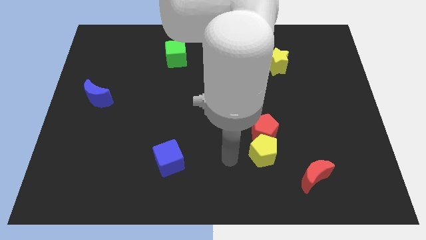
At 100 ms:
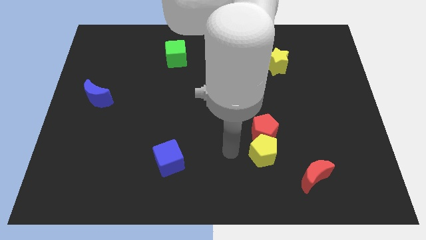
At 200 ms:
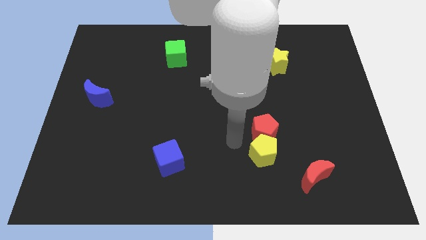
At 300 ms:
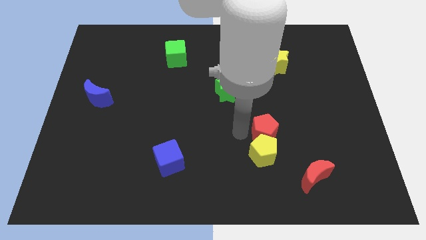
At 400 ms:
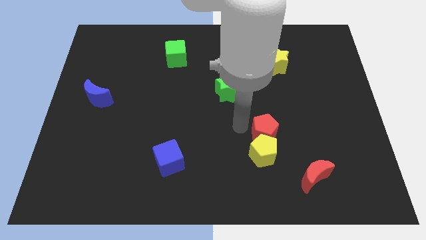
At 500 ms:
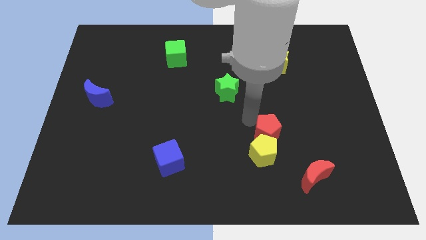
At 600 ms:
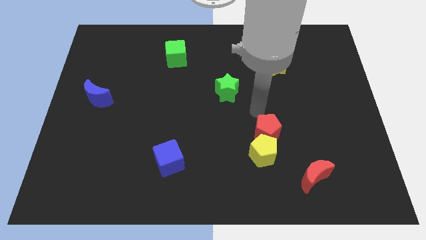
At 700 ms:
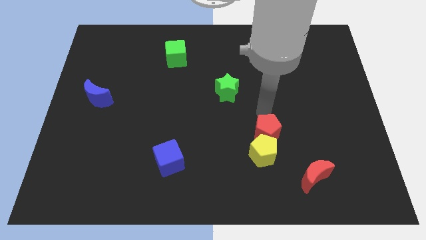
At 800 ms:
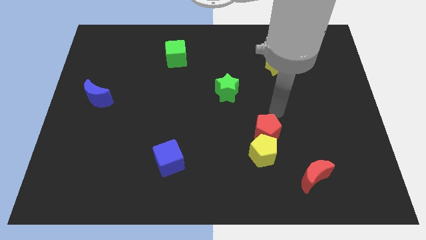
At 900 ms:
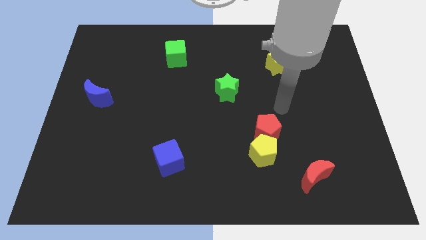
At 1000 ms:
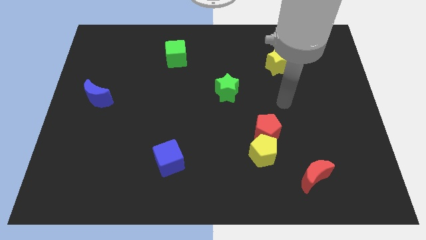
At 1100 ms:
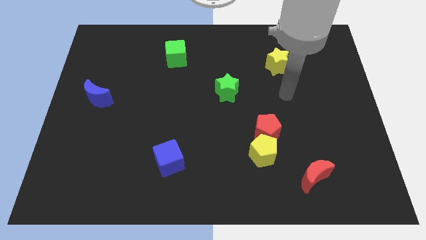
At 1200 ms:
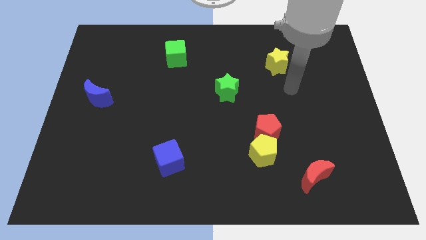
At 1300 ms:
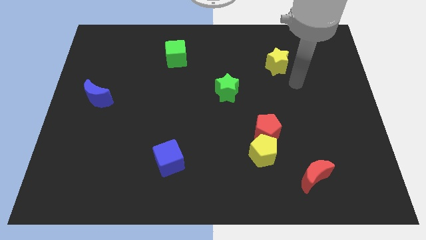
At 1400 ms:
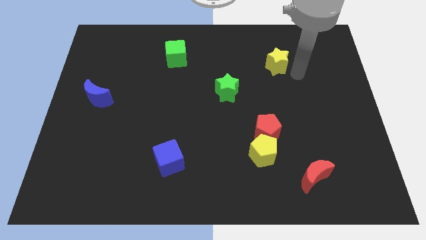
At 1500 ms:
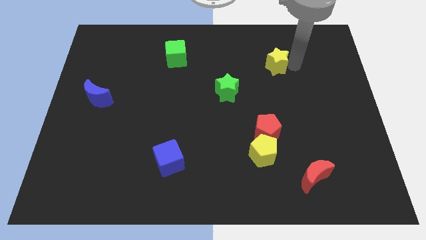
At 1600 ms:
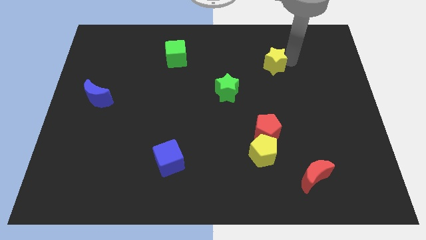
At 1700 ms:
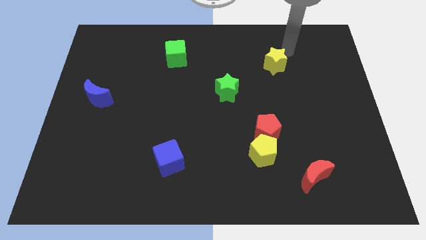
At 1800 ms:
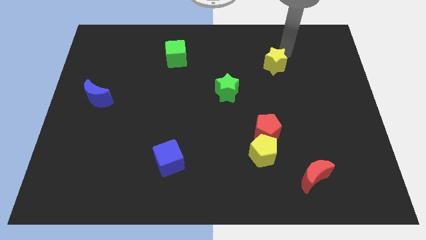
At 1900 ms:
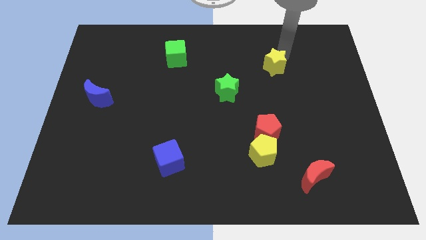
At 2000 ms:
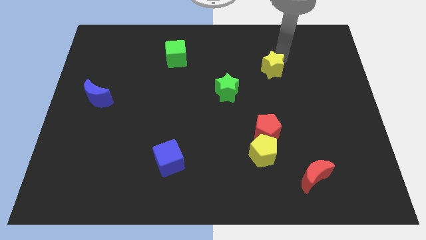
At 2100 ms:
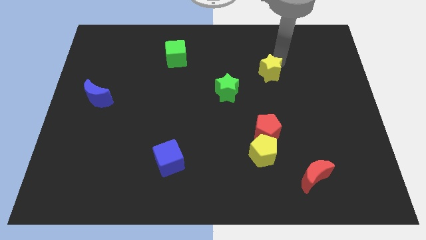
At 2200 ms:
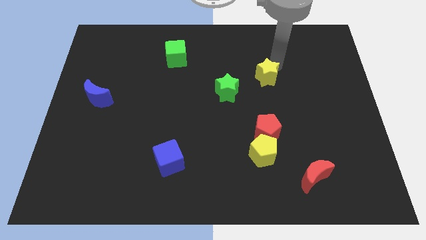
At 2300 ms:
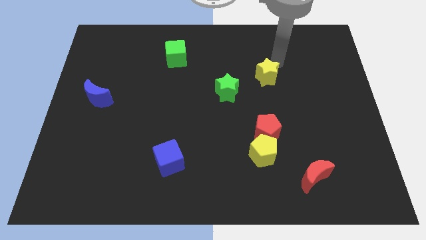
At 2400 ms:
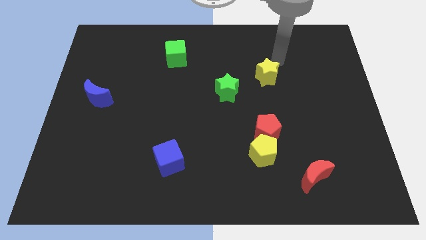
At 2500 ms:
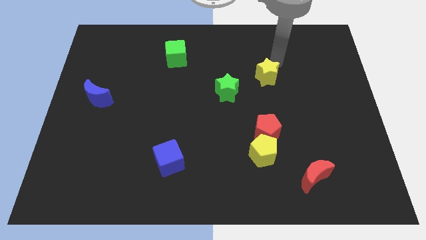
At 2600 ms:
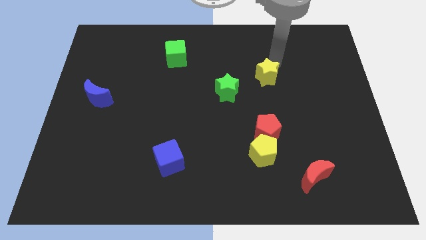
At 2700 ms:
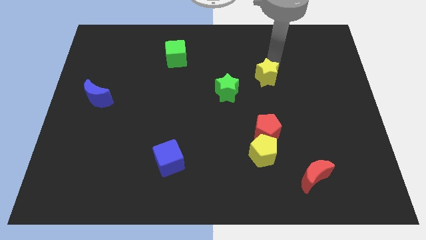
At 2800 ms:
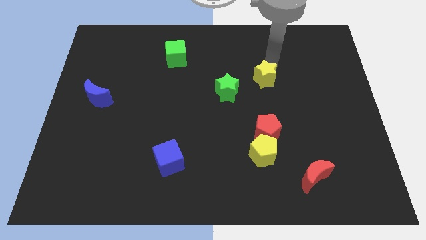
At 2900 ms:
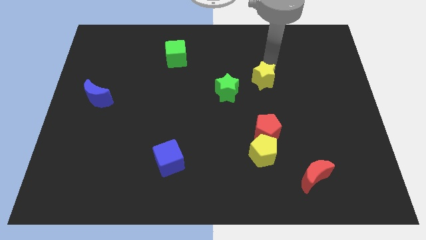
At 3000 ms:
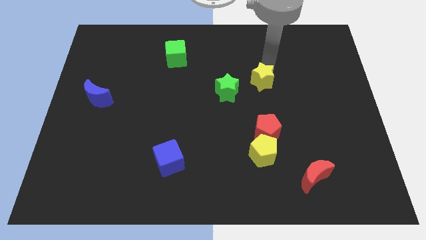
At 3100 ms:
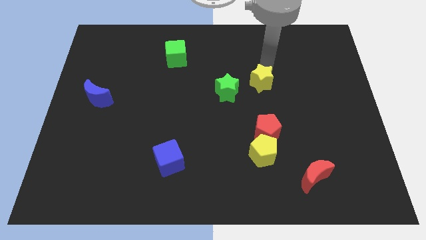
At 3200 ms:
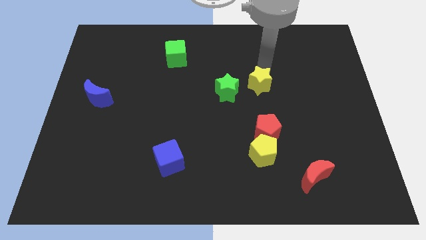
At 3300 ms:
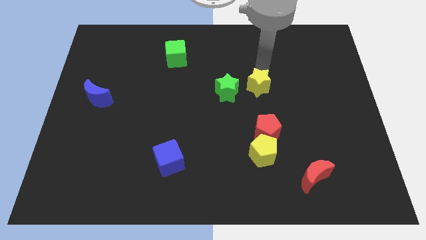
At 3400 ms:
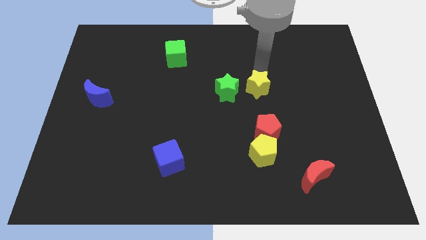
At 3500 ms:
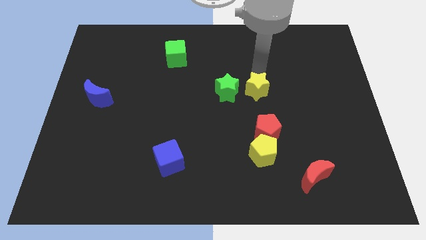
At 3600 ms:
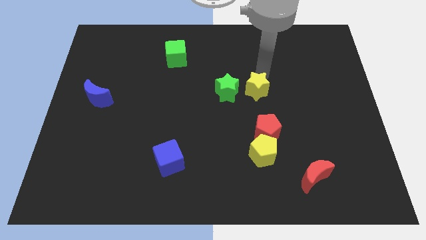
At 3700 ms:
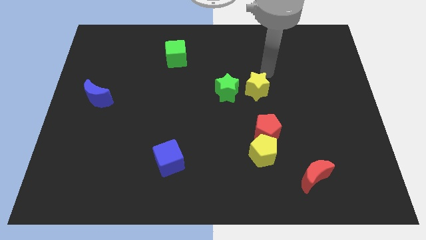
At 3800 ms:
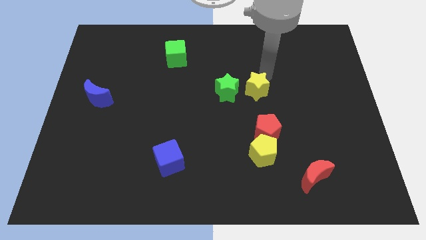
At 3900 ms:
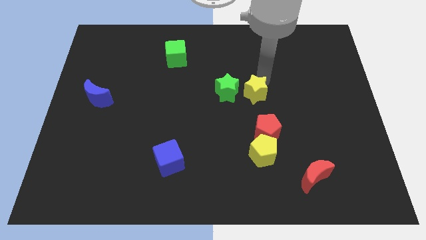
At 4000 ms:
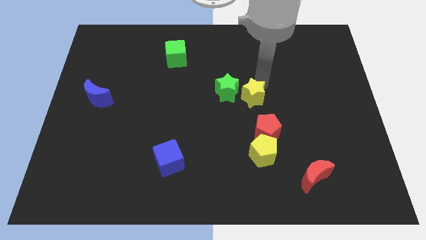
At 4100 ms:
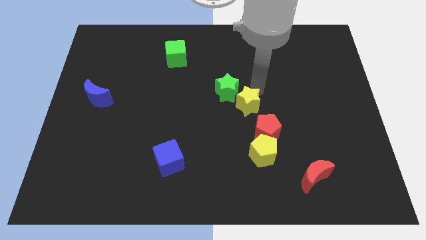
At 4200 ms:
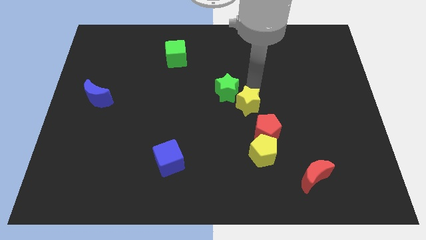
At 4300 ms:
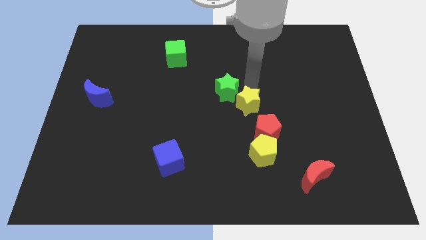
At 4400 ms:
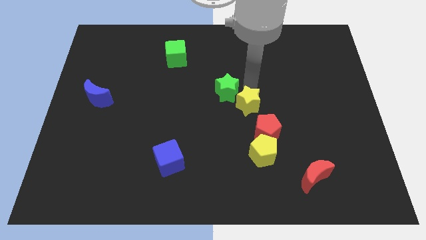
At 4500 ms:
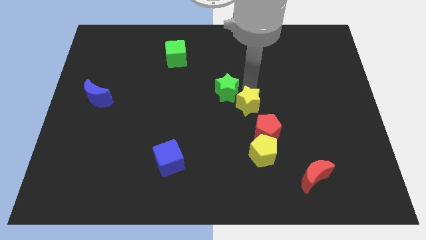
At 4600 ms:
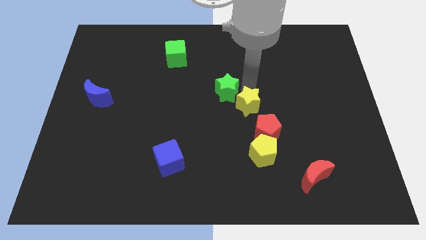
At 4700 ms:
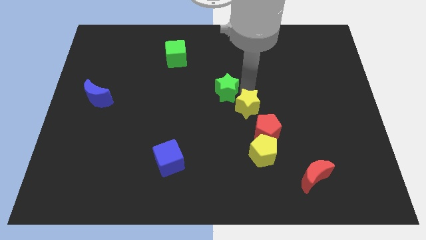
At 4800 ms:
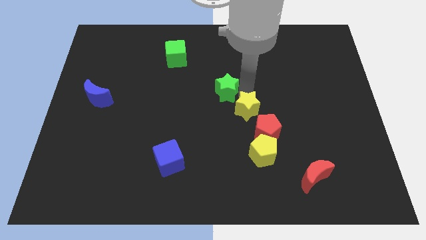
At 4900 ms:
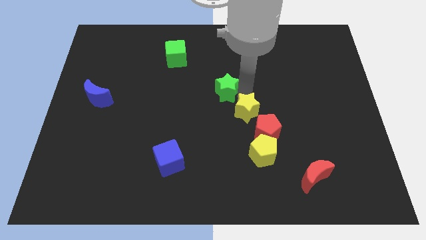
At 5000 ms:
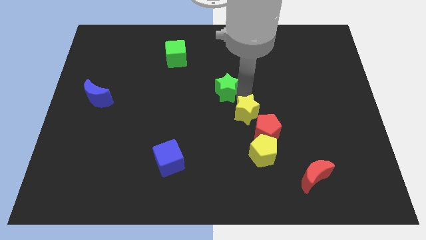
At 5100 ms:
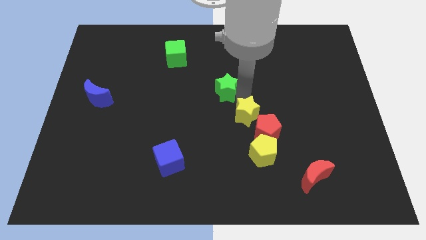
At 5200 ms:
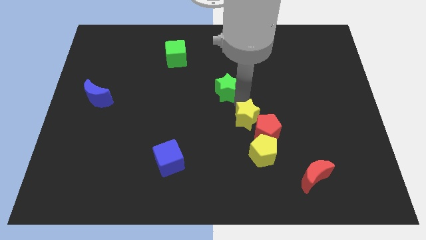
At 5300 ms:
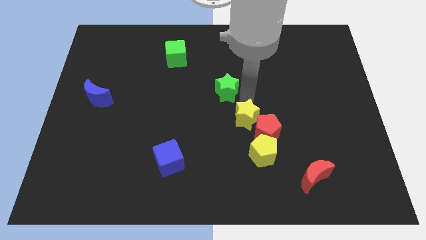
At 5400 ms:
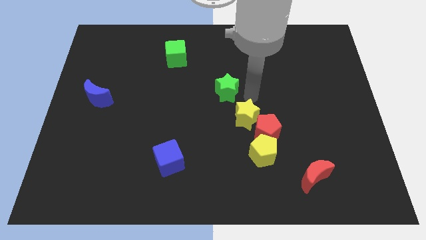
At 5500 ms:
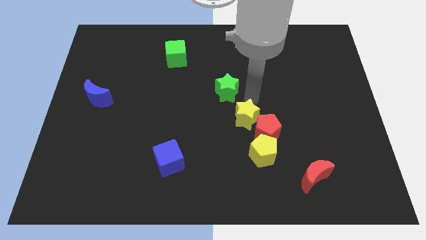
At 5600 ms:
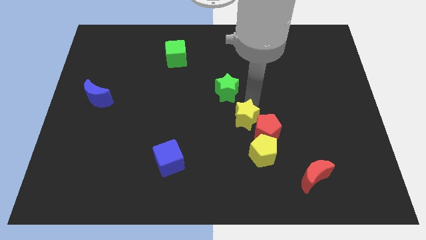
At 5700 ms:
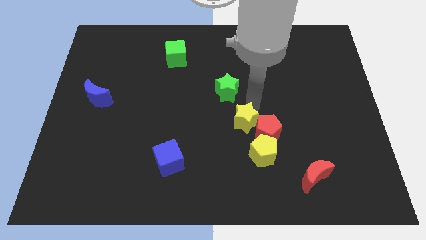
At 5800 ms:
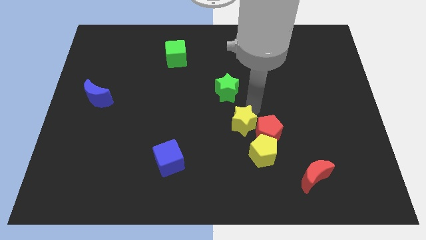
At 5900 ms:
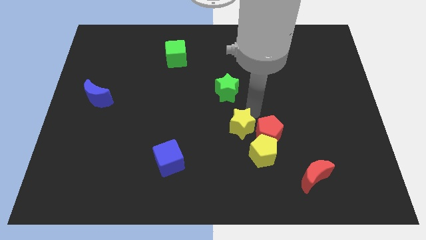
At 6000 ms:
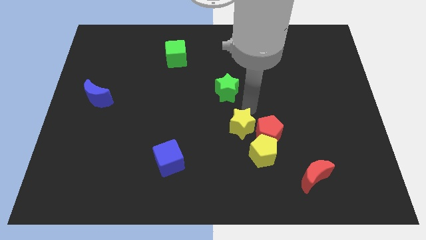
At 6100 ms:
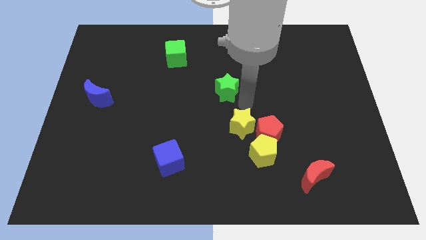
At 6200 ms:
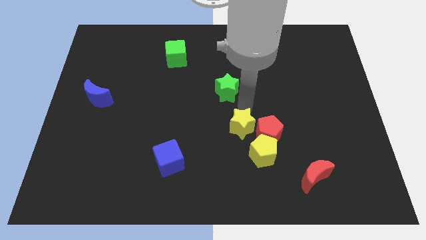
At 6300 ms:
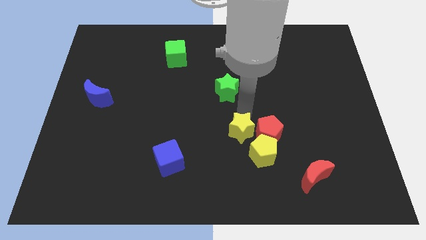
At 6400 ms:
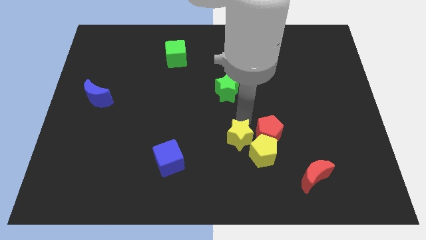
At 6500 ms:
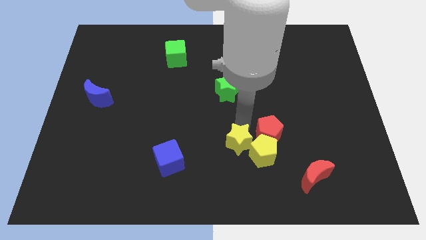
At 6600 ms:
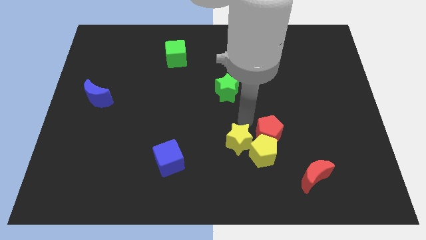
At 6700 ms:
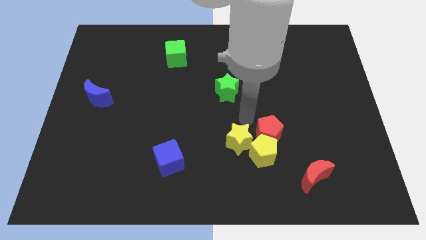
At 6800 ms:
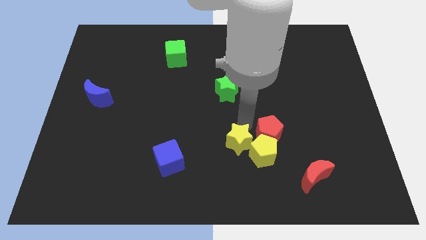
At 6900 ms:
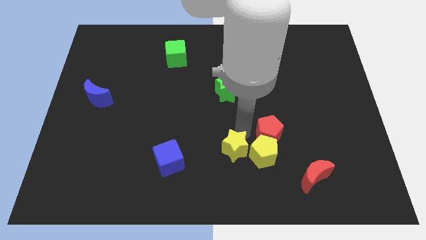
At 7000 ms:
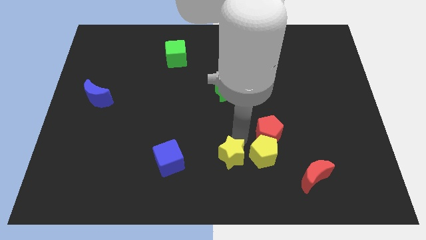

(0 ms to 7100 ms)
put the yellow star to the bottom side
